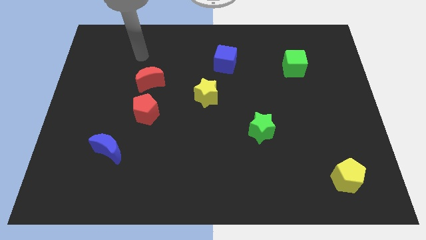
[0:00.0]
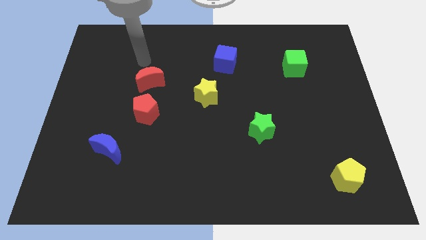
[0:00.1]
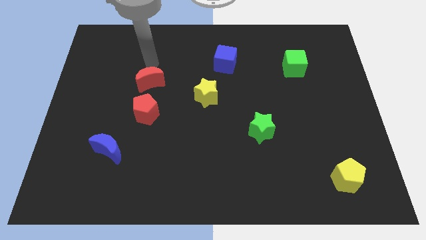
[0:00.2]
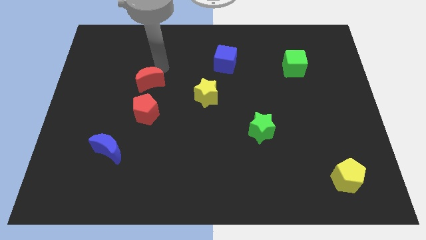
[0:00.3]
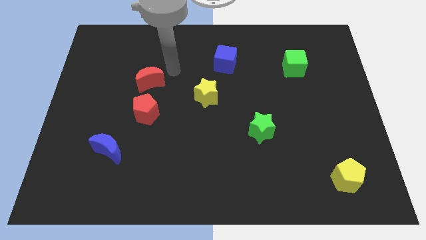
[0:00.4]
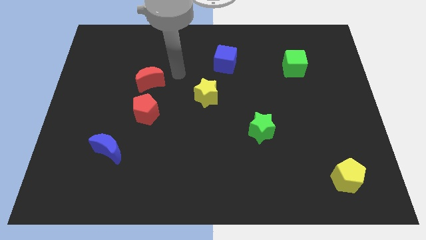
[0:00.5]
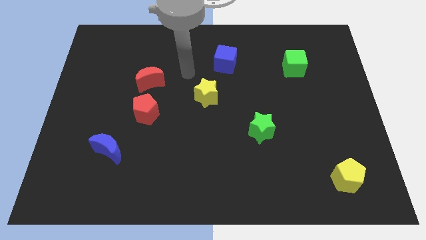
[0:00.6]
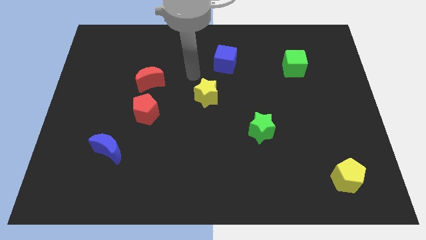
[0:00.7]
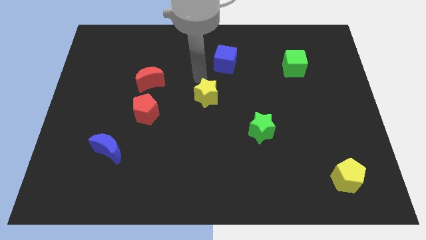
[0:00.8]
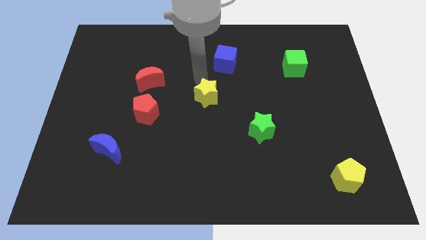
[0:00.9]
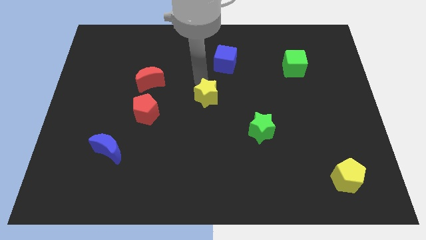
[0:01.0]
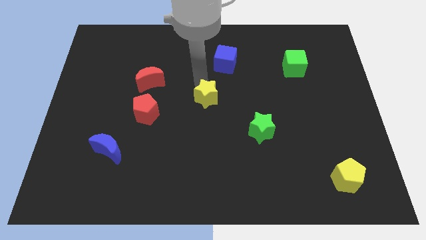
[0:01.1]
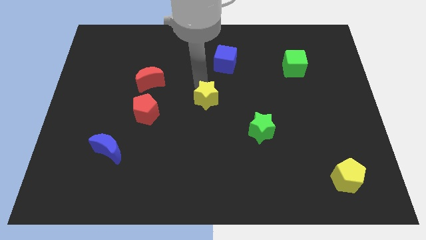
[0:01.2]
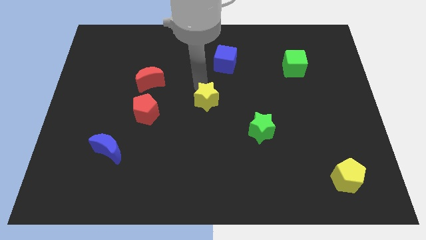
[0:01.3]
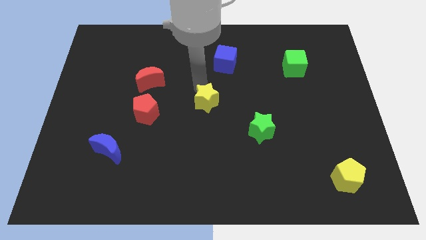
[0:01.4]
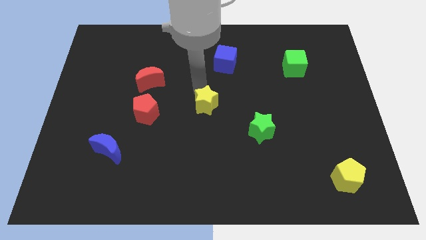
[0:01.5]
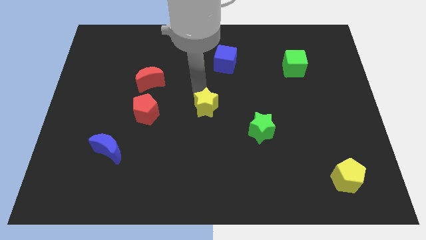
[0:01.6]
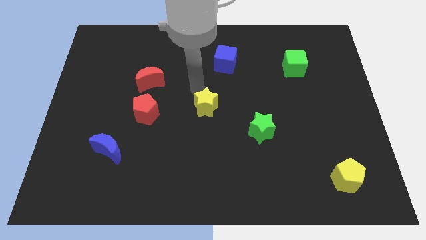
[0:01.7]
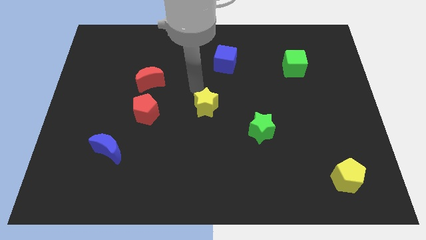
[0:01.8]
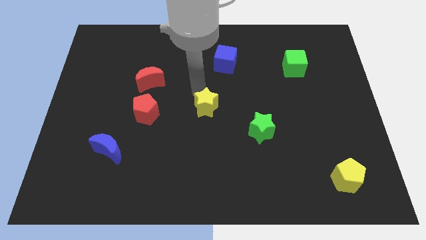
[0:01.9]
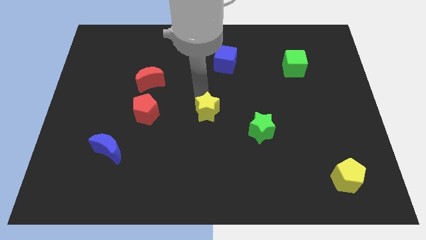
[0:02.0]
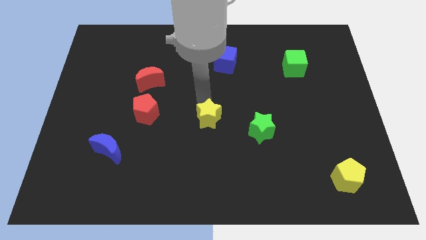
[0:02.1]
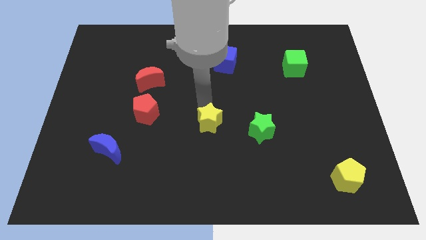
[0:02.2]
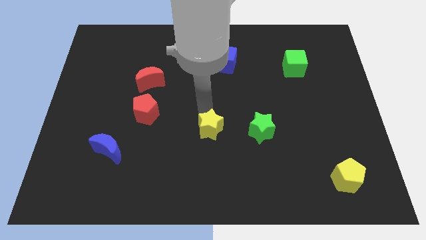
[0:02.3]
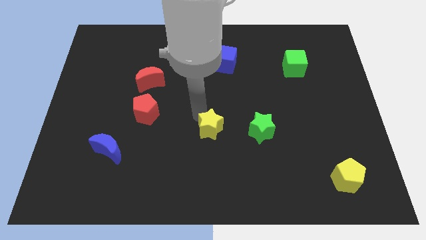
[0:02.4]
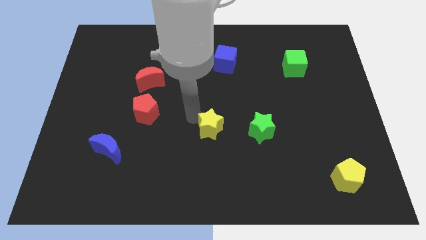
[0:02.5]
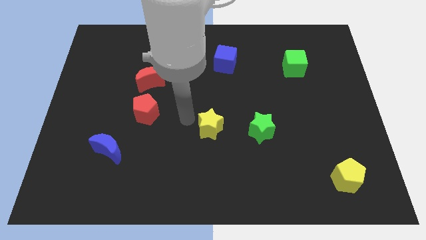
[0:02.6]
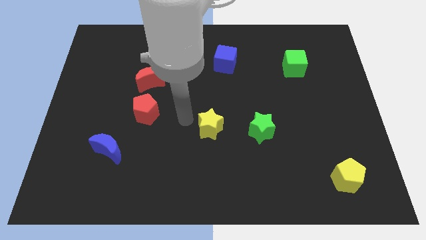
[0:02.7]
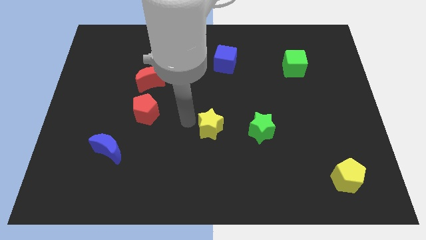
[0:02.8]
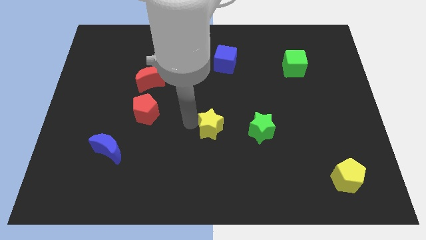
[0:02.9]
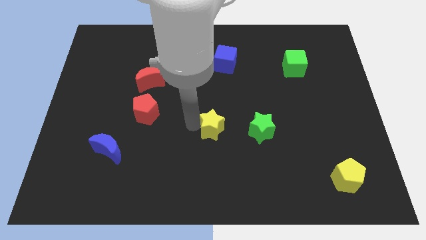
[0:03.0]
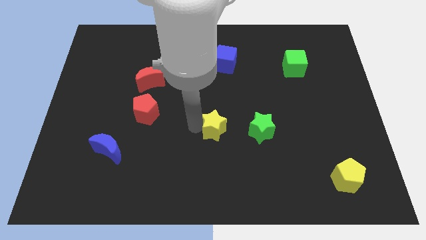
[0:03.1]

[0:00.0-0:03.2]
move the yellow star down and to the right somewhat

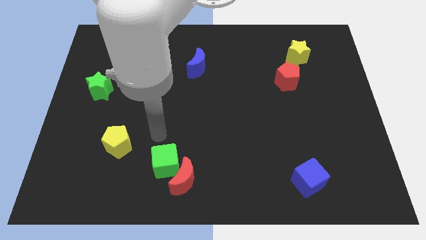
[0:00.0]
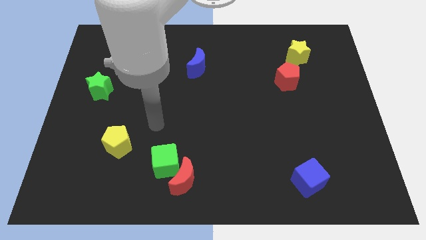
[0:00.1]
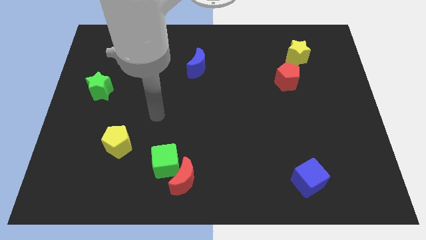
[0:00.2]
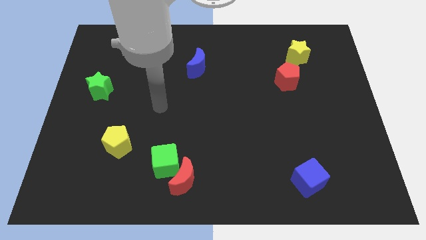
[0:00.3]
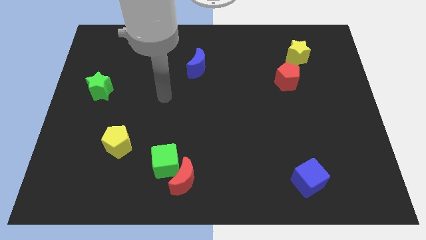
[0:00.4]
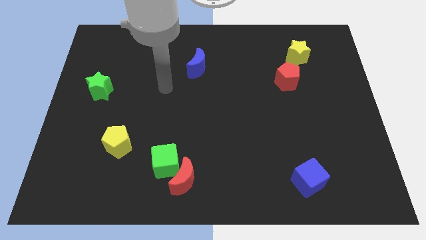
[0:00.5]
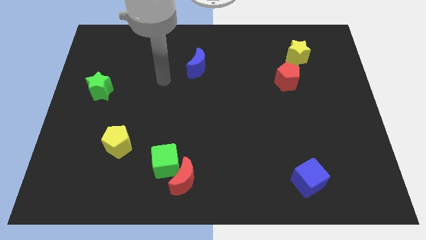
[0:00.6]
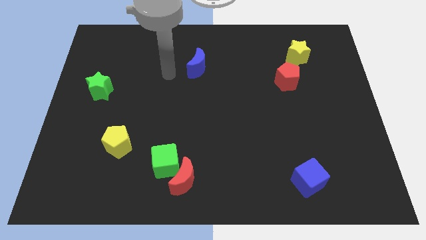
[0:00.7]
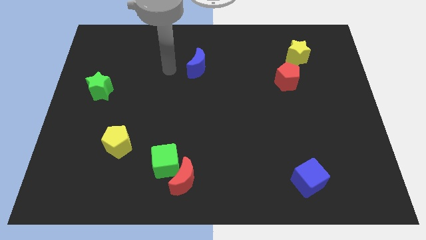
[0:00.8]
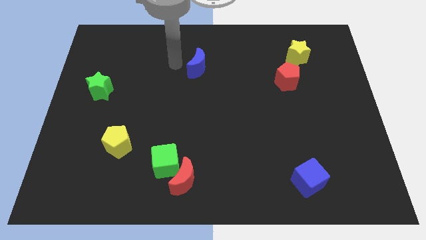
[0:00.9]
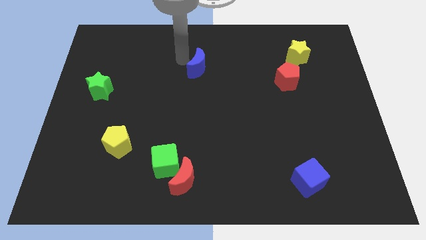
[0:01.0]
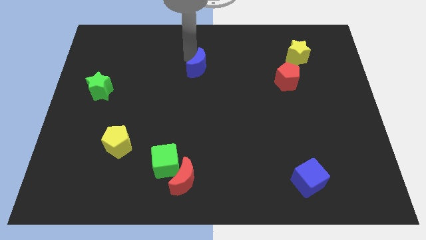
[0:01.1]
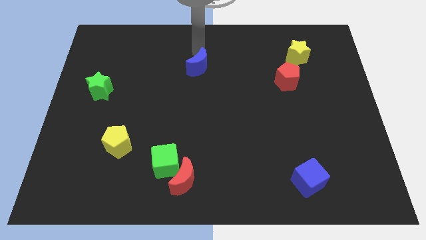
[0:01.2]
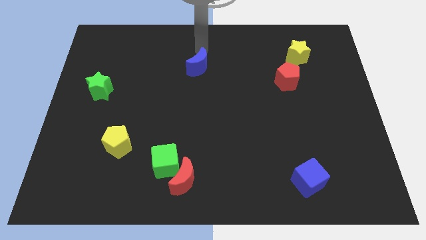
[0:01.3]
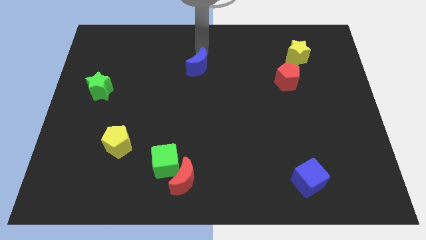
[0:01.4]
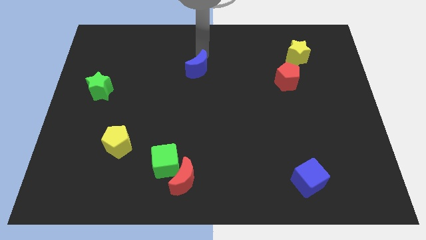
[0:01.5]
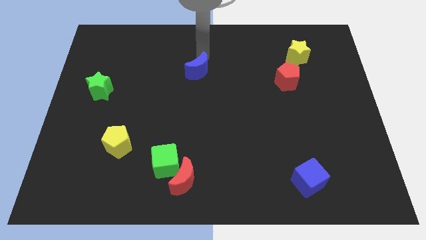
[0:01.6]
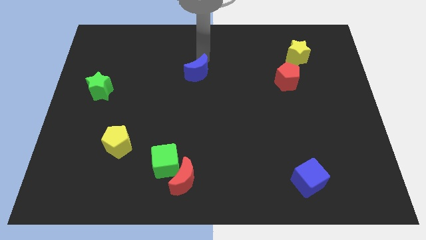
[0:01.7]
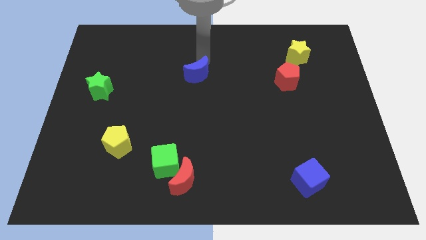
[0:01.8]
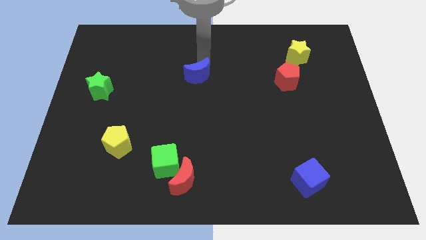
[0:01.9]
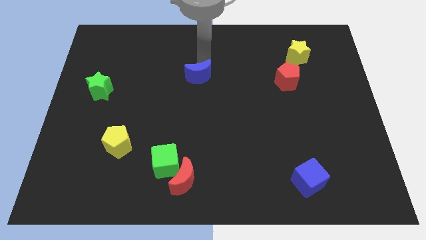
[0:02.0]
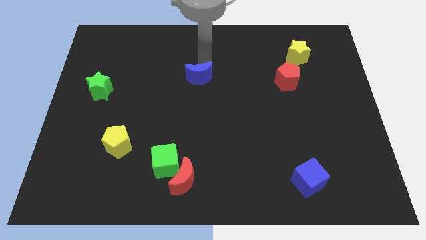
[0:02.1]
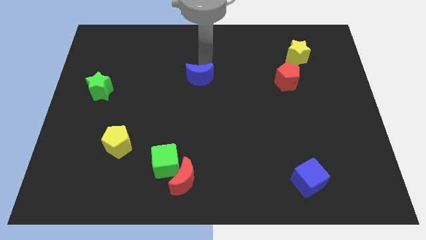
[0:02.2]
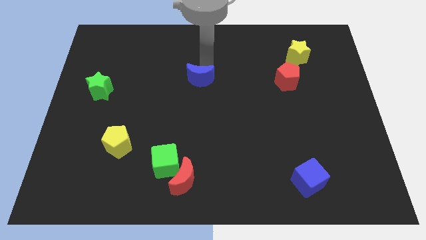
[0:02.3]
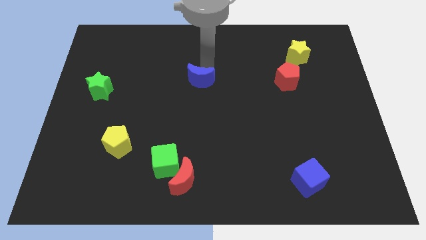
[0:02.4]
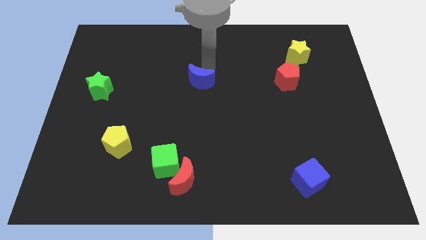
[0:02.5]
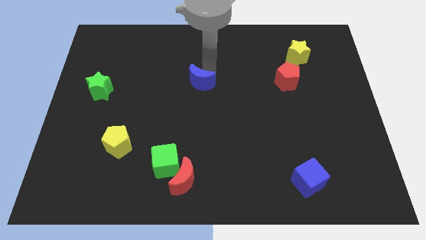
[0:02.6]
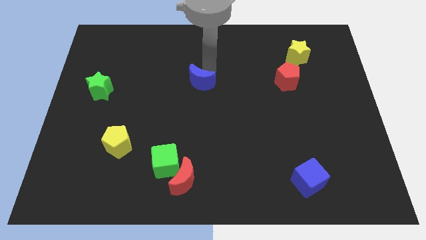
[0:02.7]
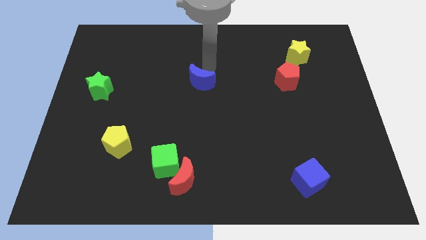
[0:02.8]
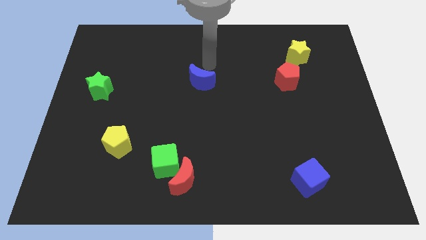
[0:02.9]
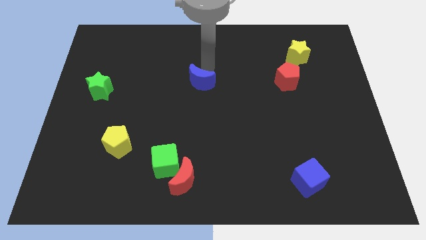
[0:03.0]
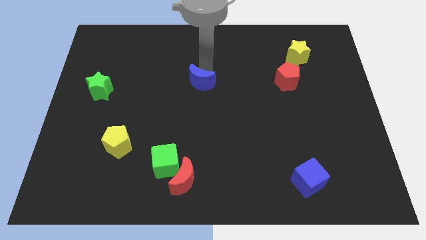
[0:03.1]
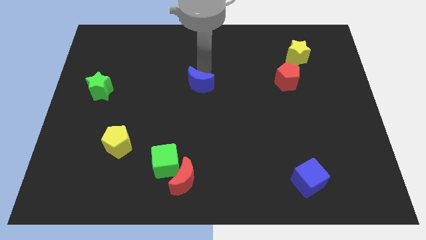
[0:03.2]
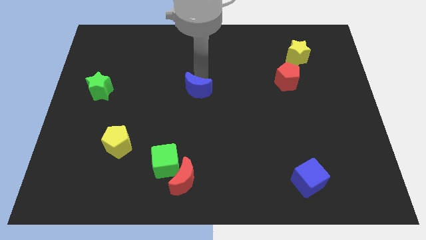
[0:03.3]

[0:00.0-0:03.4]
slightly push the blue moon down

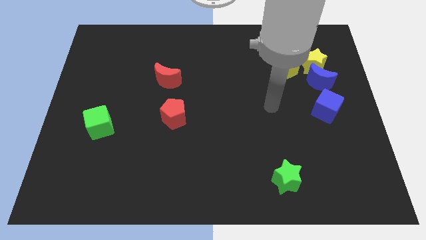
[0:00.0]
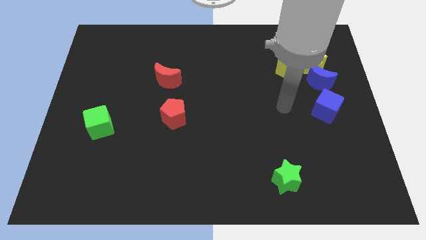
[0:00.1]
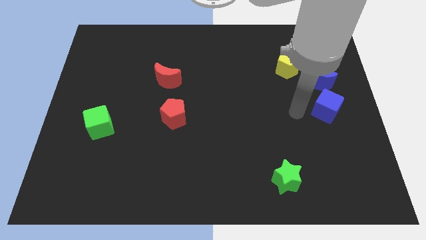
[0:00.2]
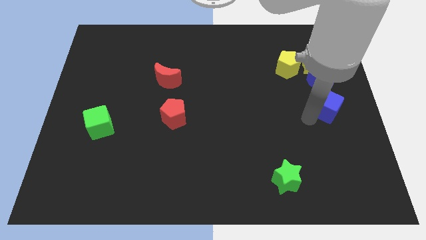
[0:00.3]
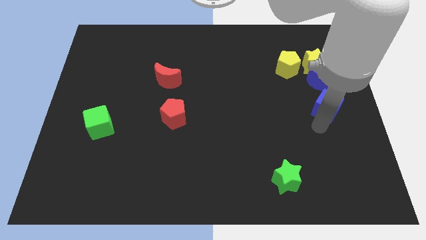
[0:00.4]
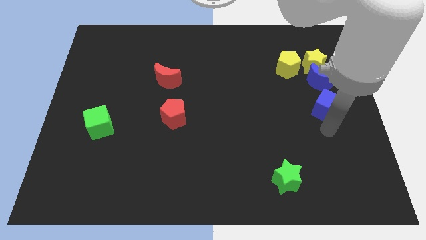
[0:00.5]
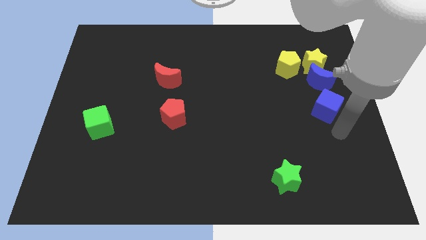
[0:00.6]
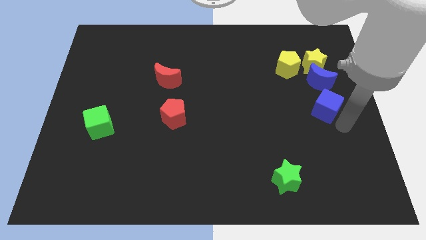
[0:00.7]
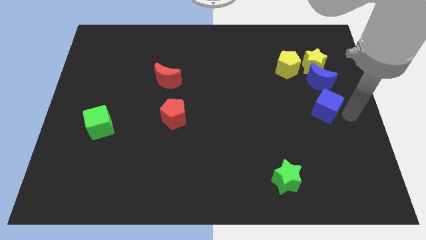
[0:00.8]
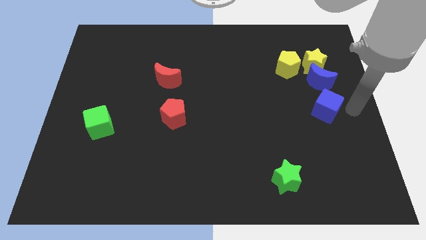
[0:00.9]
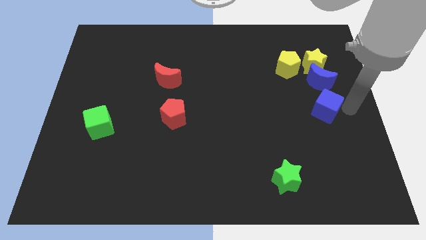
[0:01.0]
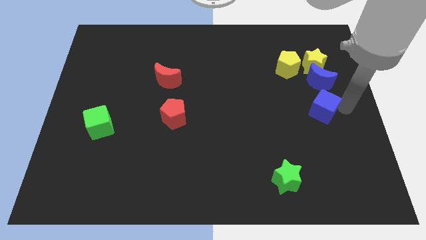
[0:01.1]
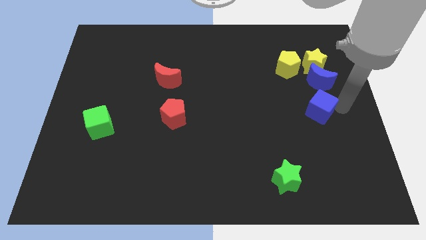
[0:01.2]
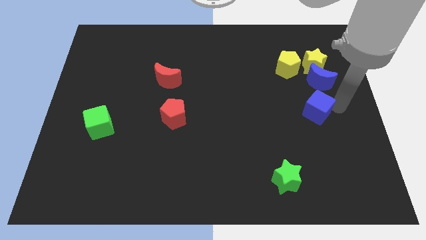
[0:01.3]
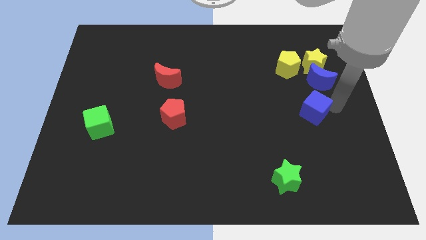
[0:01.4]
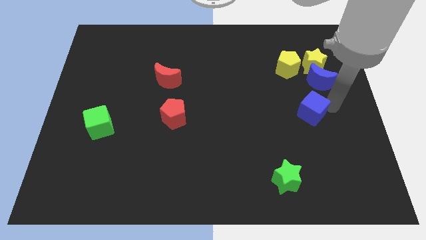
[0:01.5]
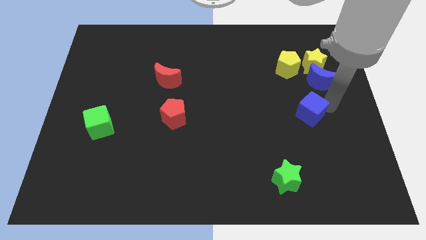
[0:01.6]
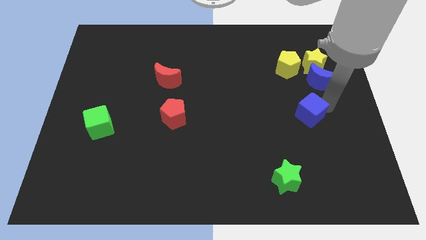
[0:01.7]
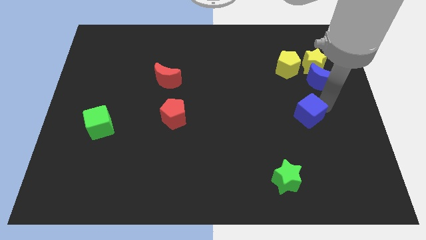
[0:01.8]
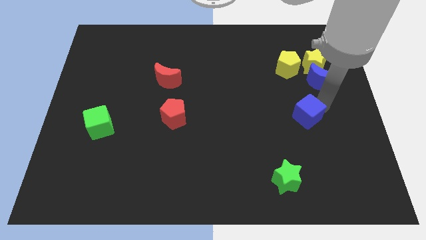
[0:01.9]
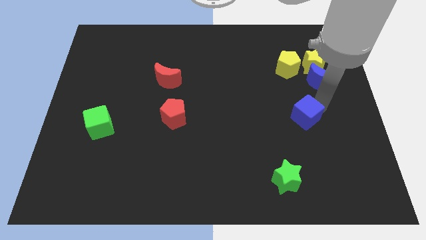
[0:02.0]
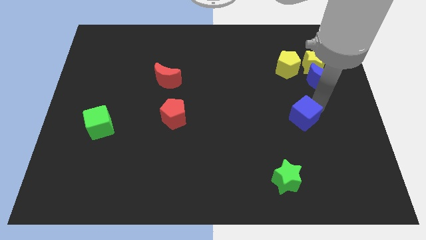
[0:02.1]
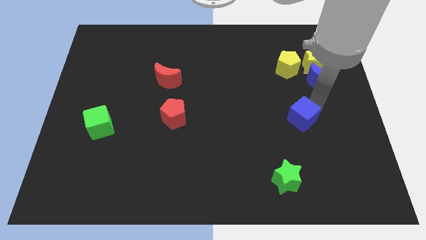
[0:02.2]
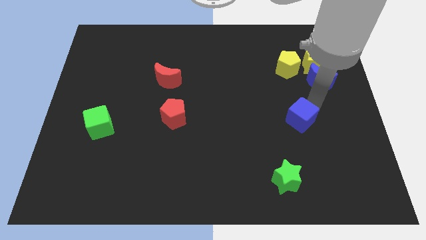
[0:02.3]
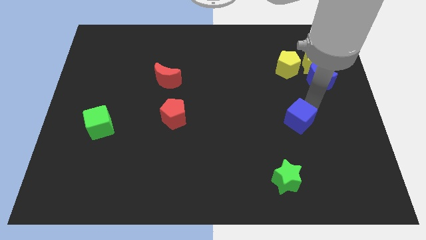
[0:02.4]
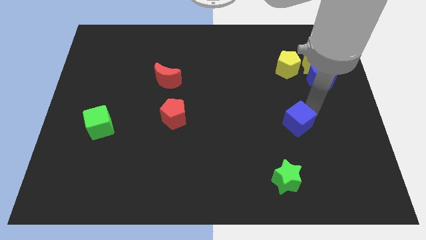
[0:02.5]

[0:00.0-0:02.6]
push the blue cube left slightly
